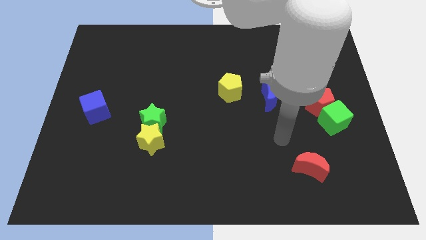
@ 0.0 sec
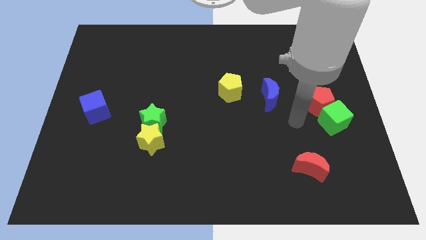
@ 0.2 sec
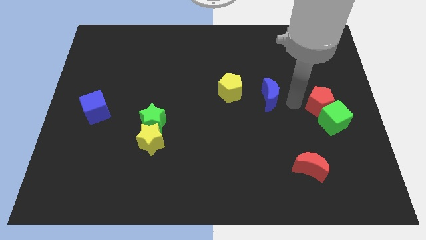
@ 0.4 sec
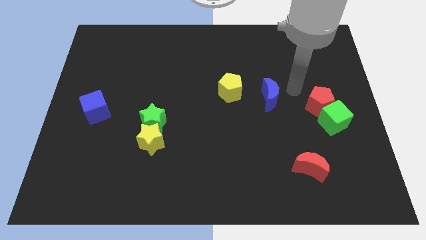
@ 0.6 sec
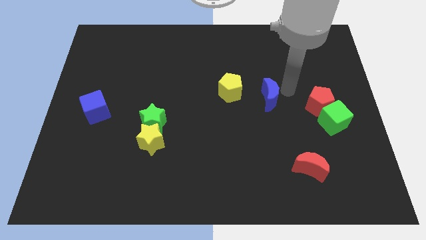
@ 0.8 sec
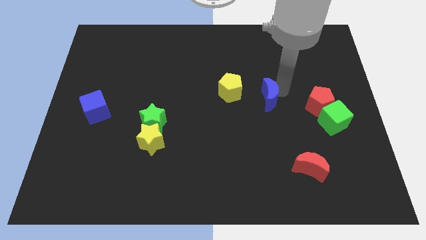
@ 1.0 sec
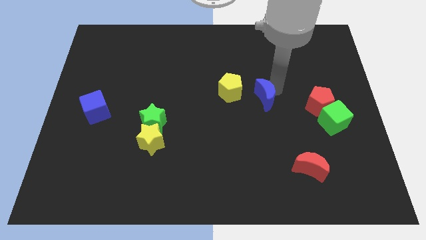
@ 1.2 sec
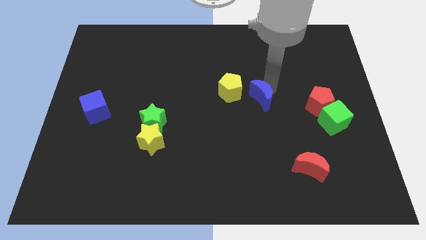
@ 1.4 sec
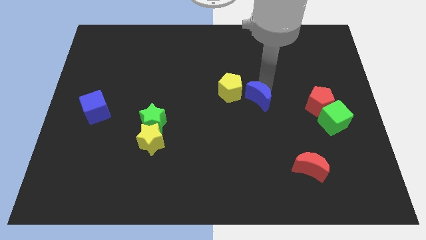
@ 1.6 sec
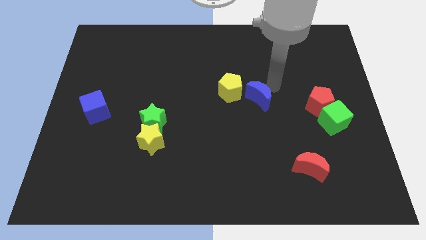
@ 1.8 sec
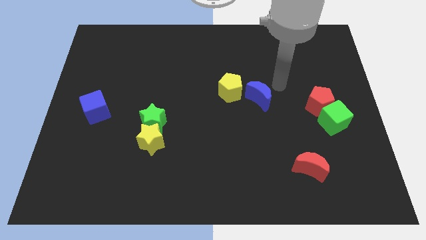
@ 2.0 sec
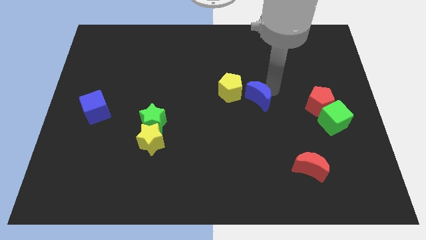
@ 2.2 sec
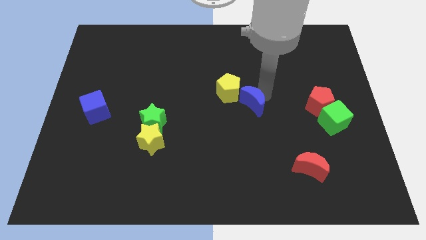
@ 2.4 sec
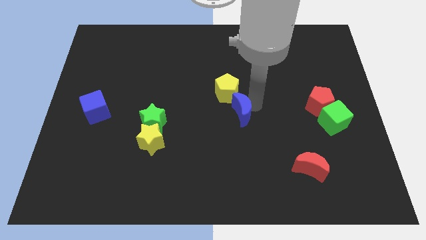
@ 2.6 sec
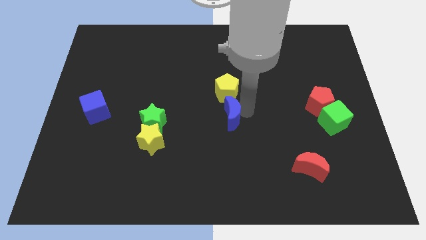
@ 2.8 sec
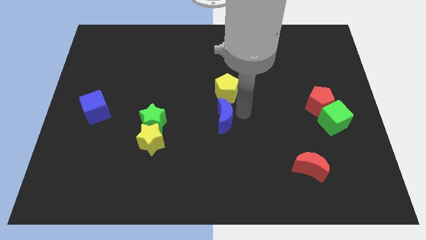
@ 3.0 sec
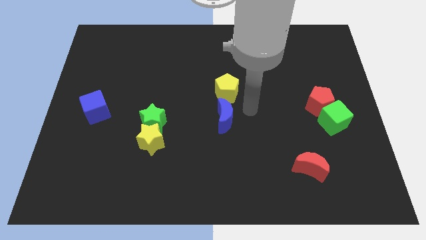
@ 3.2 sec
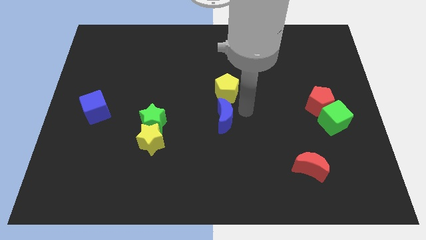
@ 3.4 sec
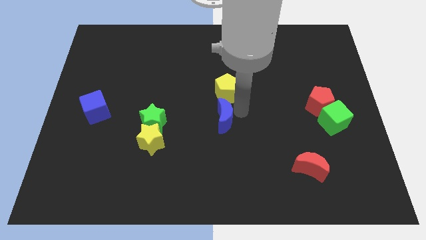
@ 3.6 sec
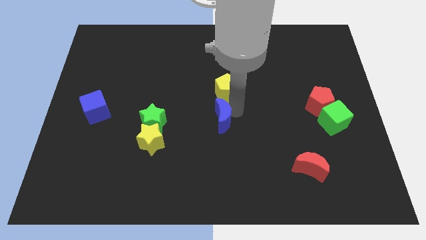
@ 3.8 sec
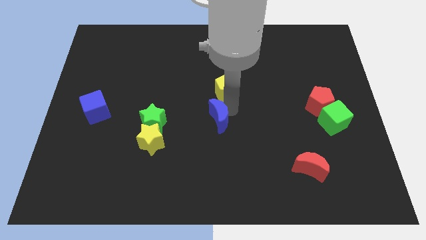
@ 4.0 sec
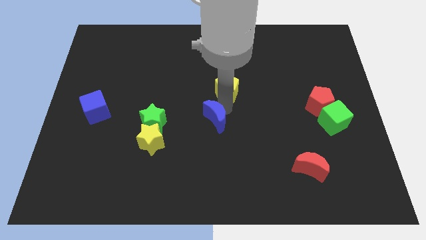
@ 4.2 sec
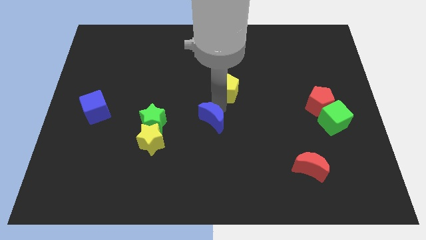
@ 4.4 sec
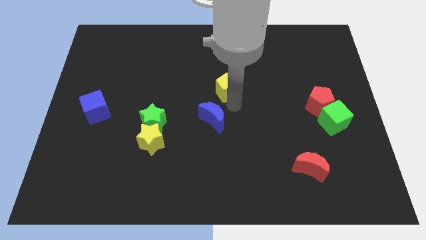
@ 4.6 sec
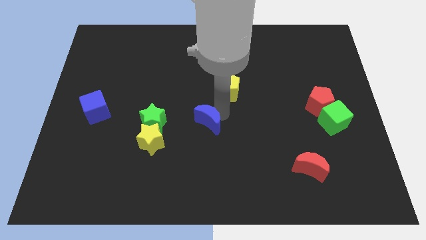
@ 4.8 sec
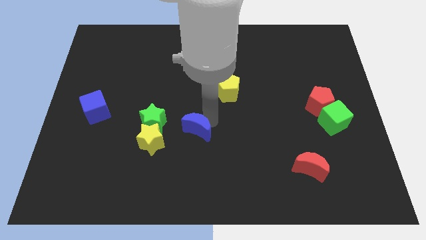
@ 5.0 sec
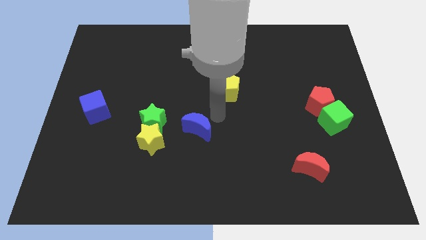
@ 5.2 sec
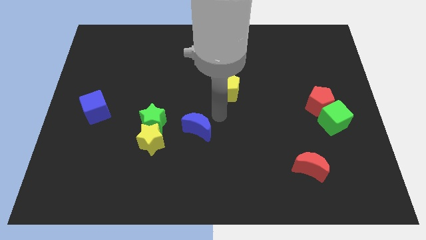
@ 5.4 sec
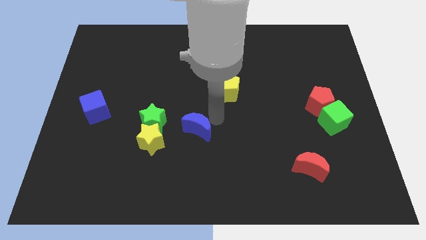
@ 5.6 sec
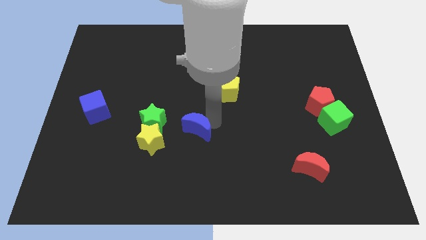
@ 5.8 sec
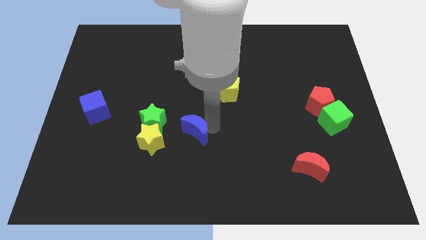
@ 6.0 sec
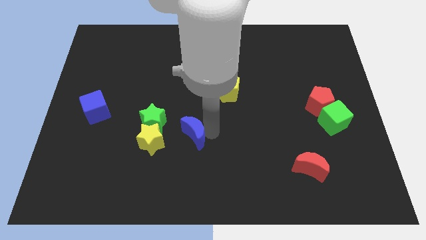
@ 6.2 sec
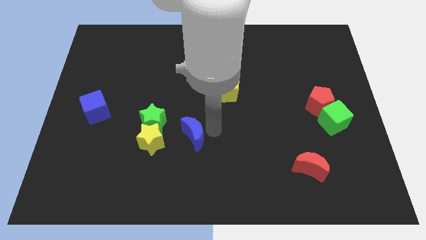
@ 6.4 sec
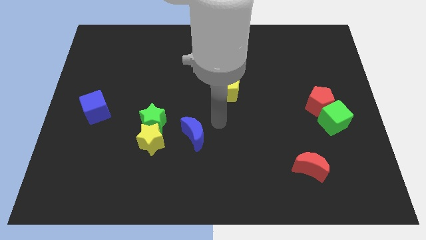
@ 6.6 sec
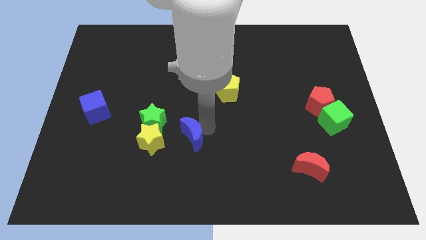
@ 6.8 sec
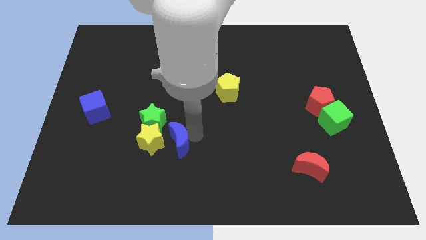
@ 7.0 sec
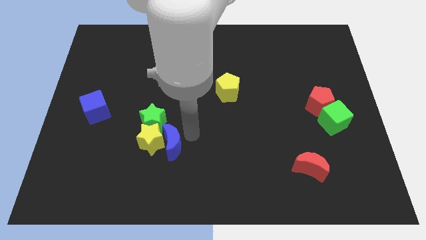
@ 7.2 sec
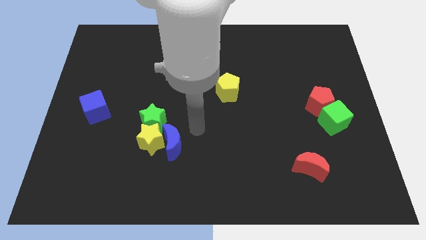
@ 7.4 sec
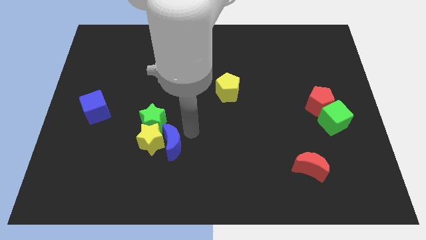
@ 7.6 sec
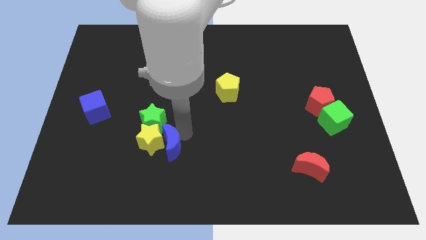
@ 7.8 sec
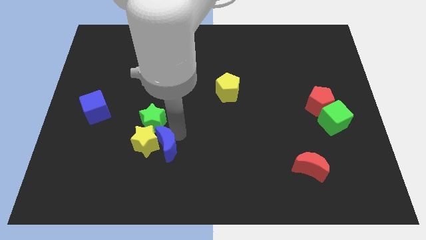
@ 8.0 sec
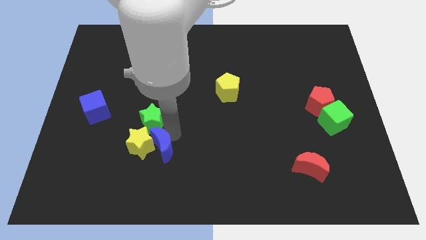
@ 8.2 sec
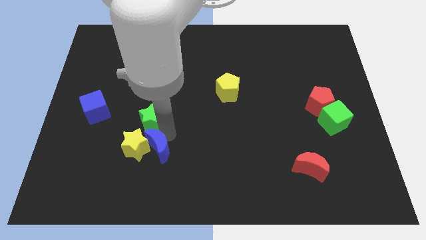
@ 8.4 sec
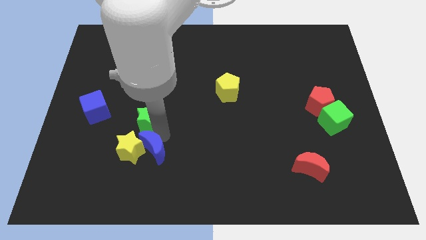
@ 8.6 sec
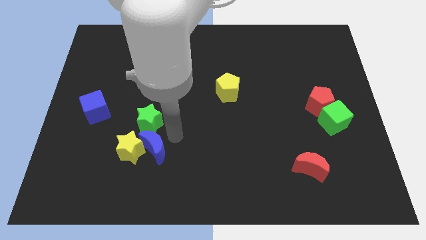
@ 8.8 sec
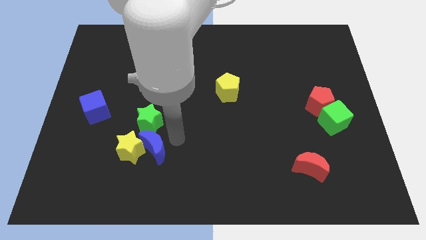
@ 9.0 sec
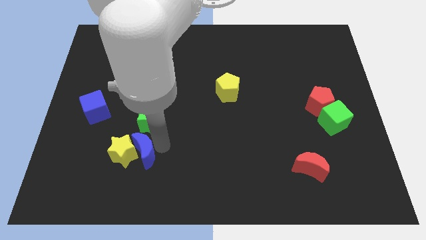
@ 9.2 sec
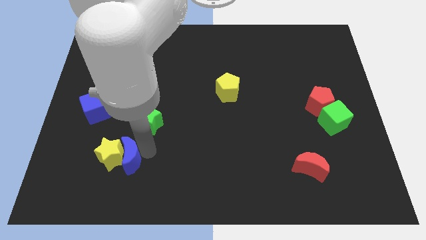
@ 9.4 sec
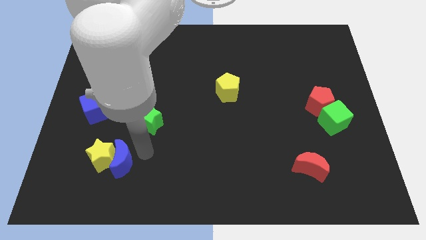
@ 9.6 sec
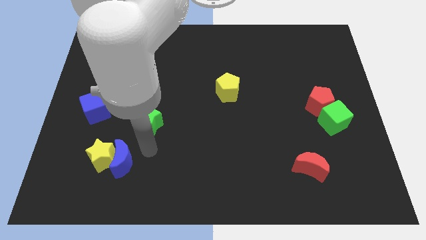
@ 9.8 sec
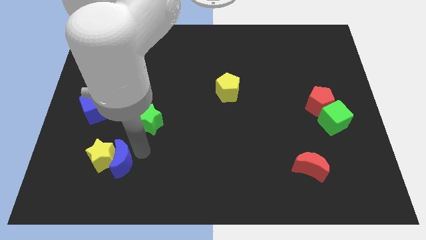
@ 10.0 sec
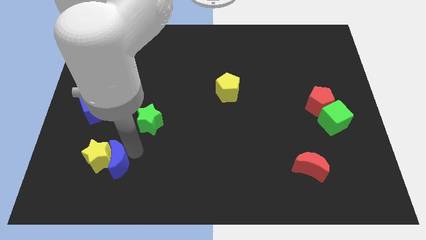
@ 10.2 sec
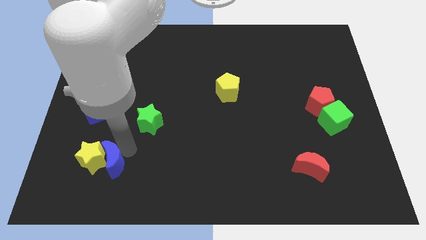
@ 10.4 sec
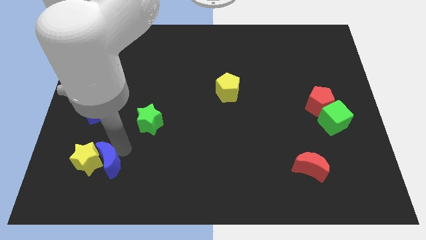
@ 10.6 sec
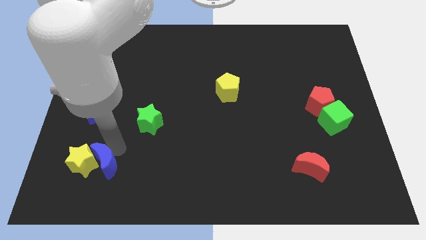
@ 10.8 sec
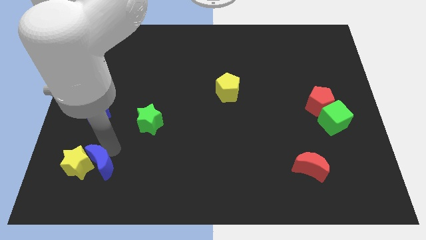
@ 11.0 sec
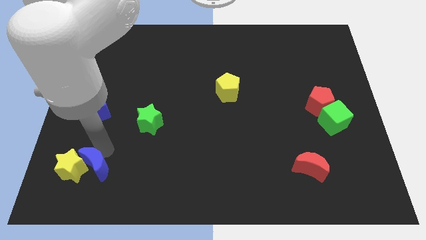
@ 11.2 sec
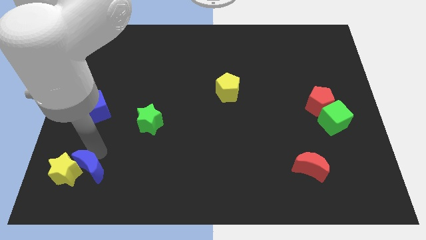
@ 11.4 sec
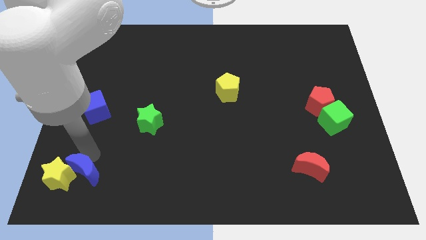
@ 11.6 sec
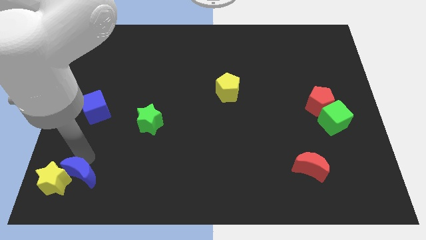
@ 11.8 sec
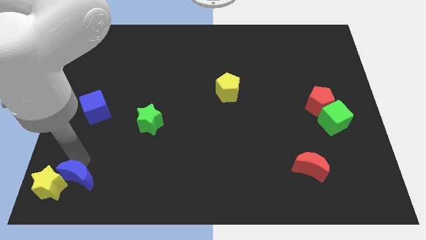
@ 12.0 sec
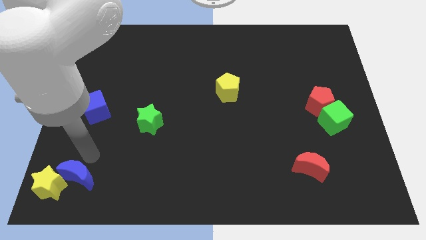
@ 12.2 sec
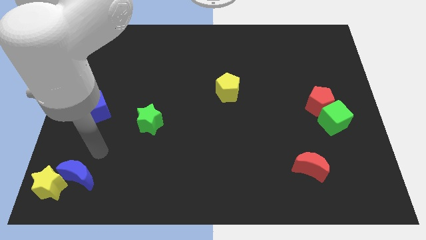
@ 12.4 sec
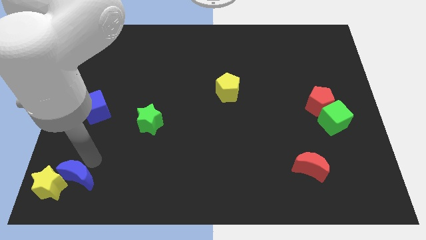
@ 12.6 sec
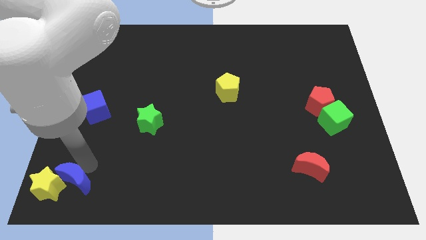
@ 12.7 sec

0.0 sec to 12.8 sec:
put the blue moon to the bottom left corner
